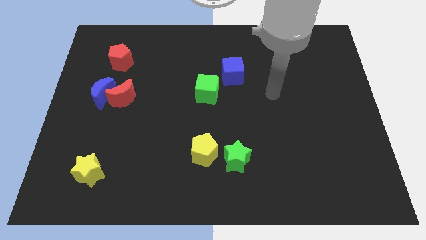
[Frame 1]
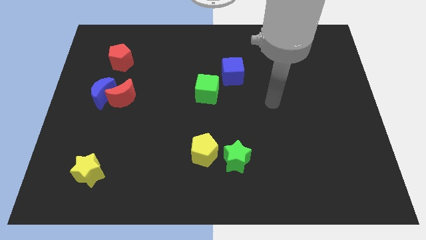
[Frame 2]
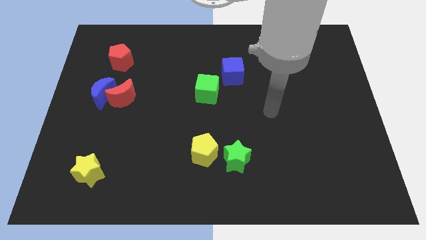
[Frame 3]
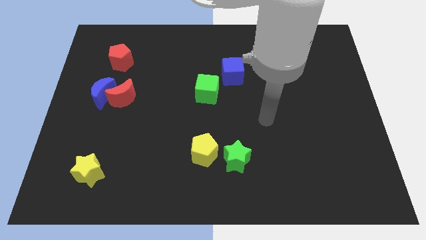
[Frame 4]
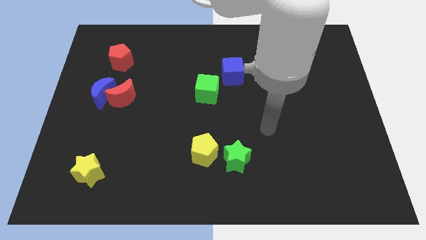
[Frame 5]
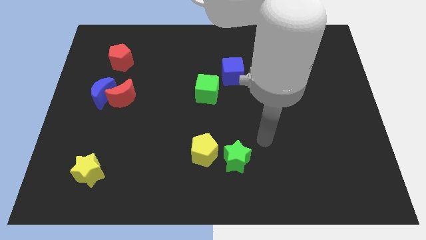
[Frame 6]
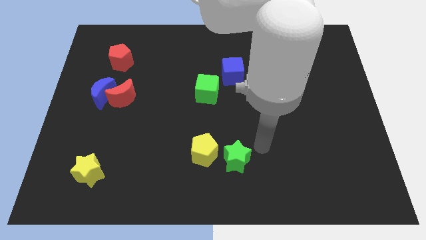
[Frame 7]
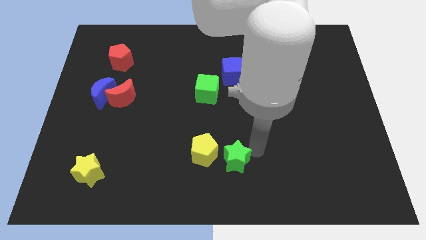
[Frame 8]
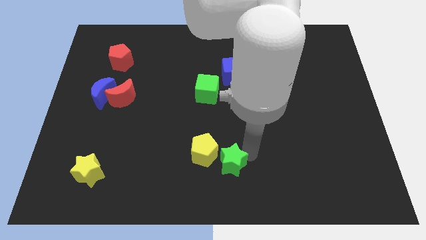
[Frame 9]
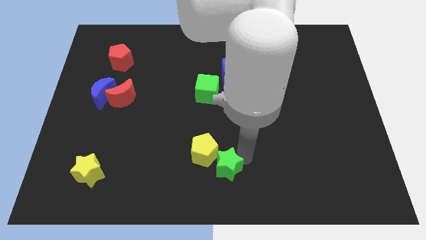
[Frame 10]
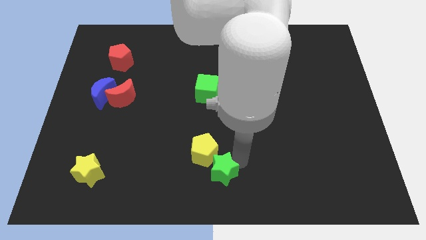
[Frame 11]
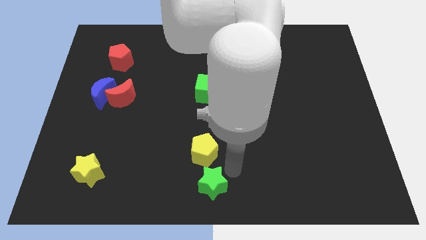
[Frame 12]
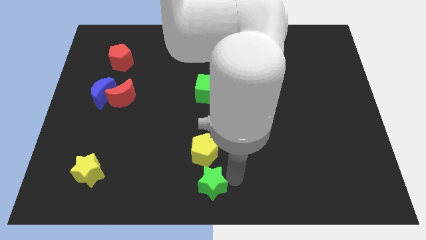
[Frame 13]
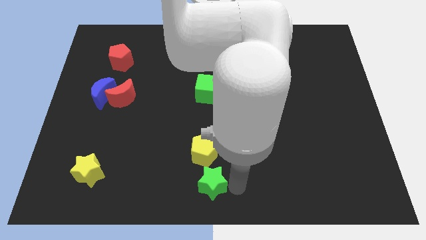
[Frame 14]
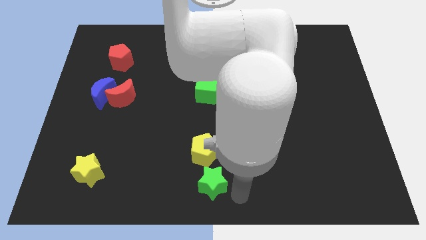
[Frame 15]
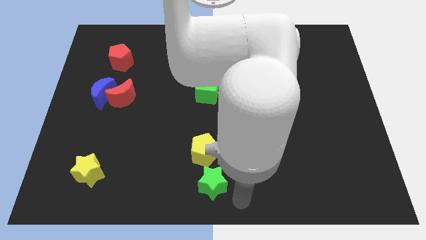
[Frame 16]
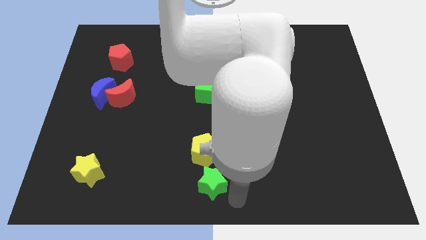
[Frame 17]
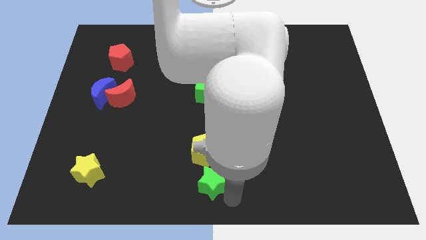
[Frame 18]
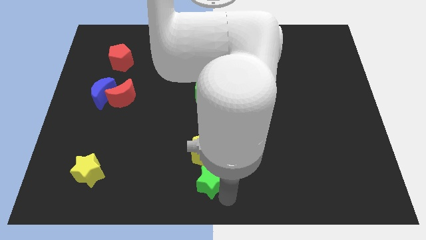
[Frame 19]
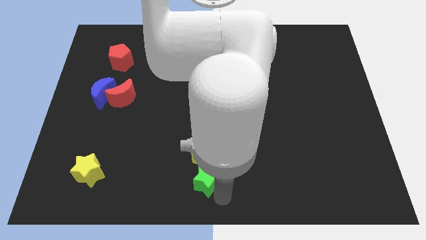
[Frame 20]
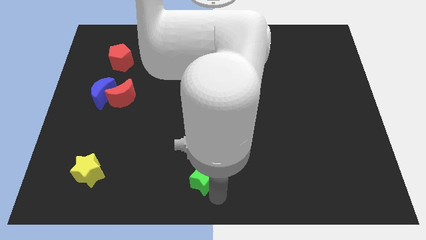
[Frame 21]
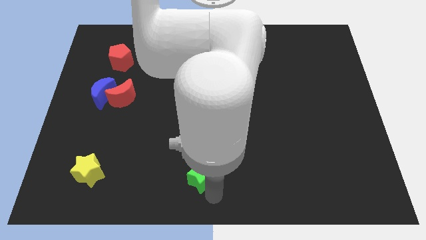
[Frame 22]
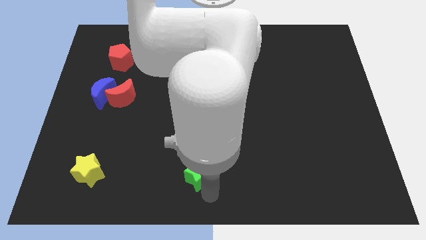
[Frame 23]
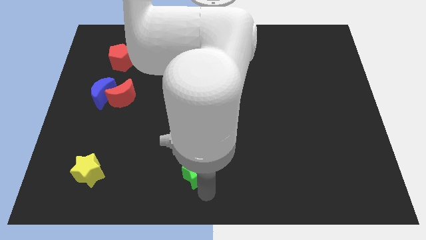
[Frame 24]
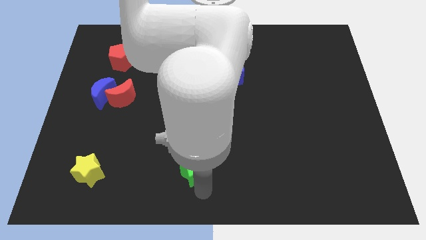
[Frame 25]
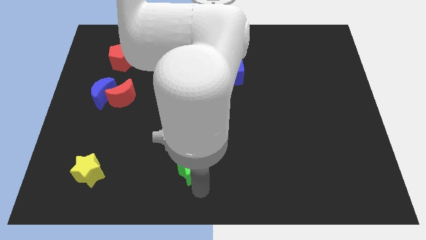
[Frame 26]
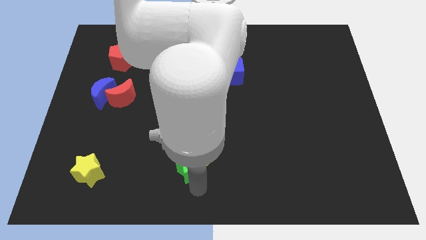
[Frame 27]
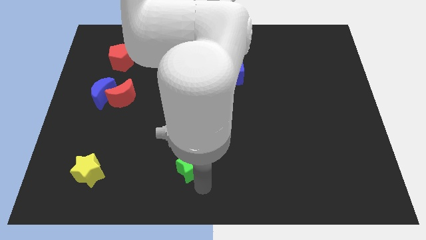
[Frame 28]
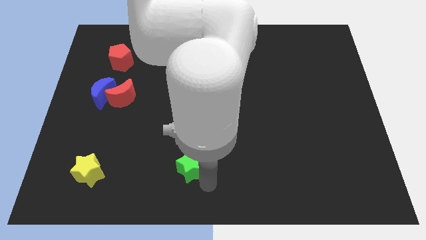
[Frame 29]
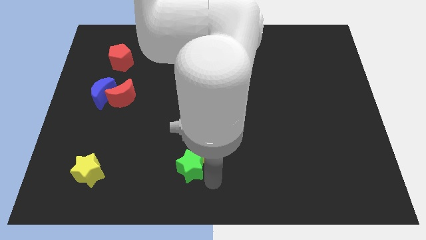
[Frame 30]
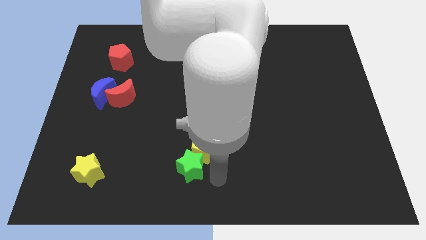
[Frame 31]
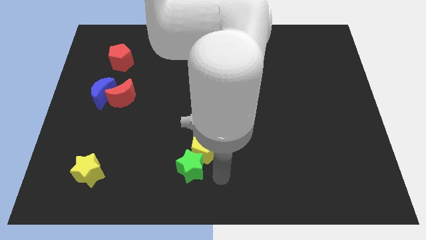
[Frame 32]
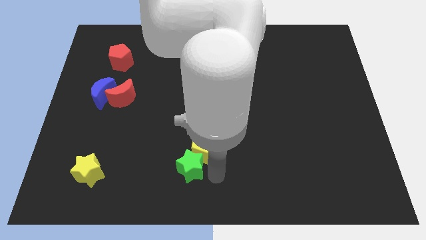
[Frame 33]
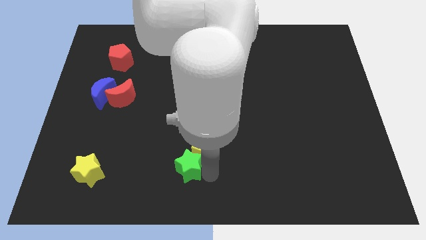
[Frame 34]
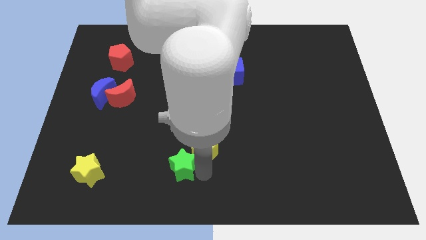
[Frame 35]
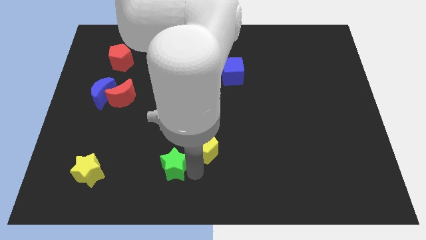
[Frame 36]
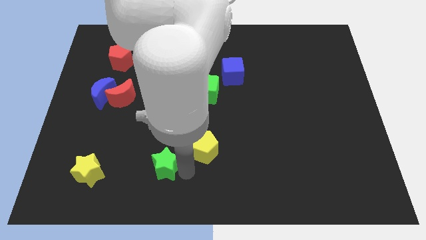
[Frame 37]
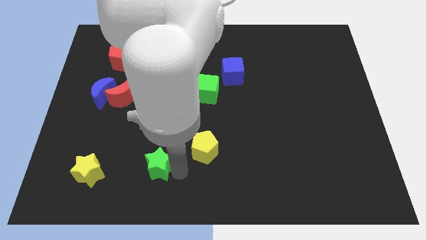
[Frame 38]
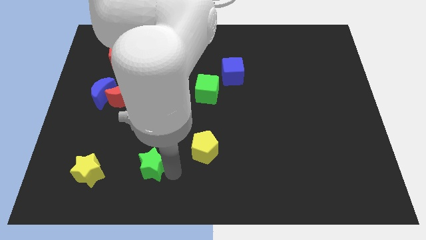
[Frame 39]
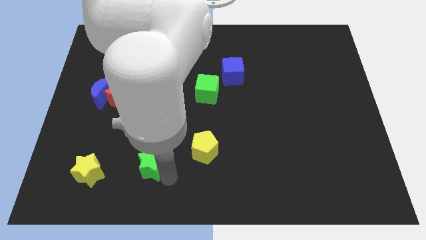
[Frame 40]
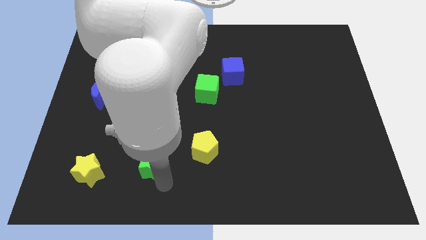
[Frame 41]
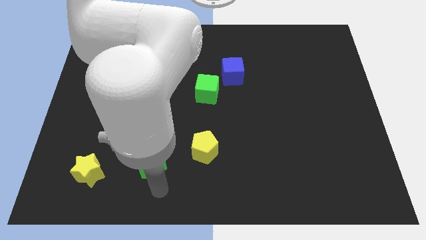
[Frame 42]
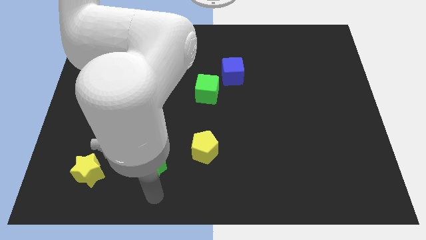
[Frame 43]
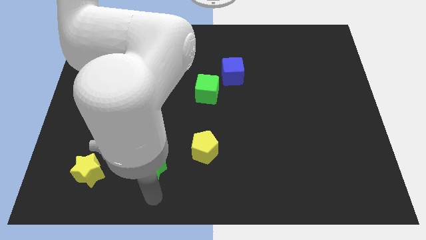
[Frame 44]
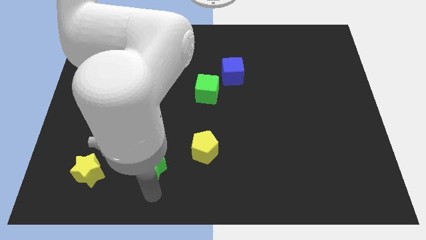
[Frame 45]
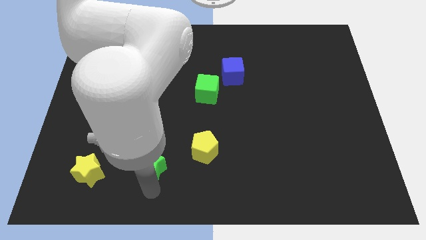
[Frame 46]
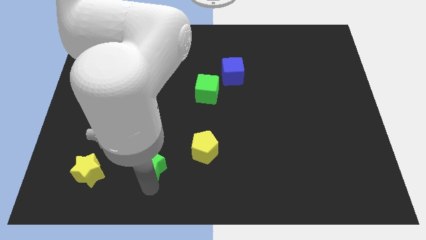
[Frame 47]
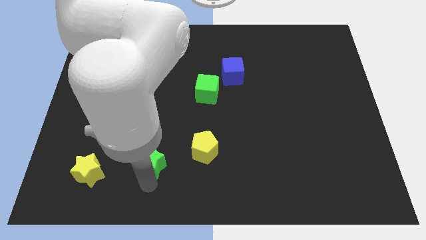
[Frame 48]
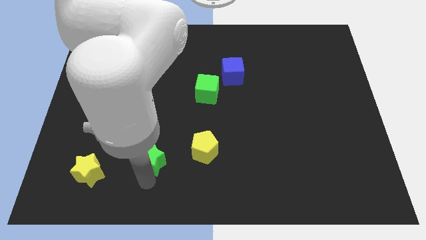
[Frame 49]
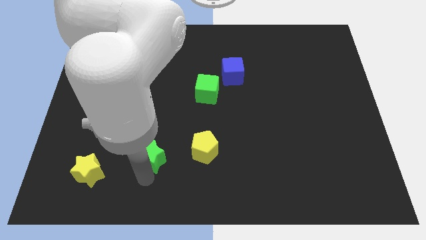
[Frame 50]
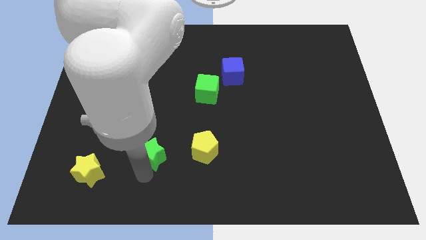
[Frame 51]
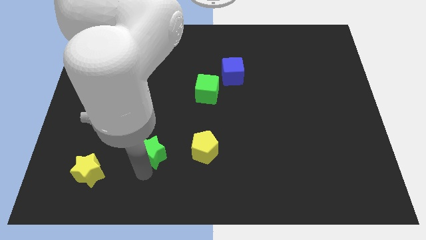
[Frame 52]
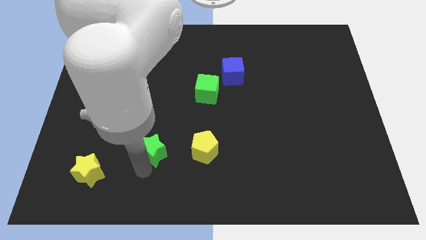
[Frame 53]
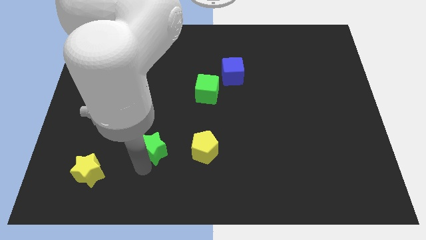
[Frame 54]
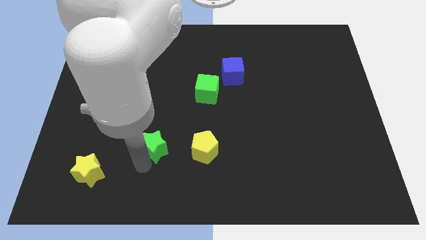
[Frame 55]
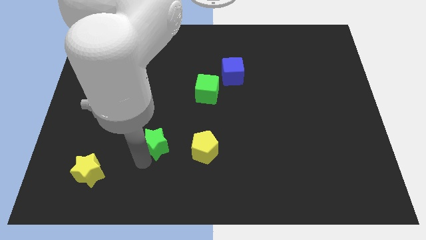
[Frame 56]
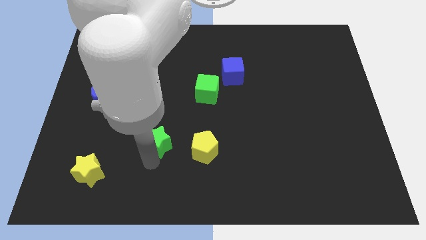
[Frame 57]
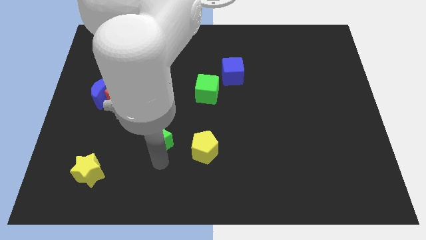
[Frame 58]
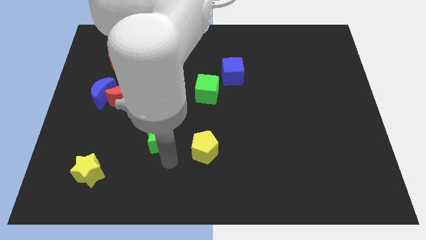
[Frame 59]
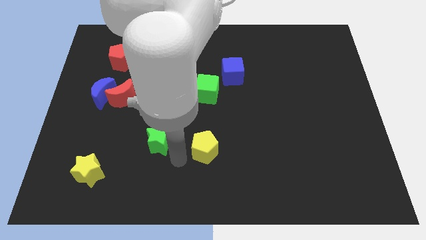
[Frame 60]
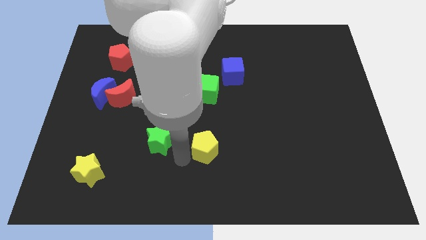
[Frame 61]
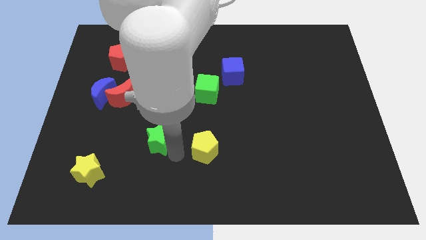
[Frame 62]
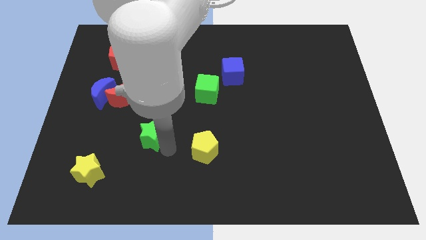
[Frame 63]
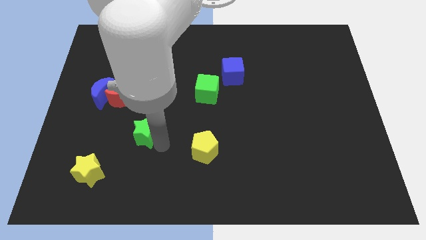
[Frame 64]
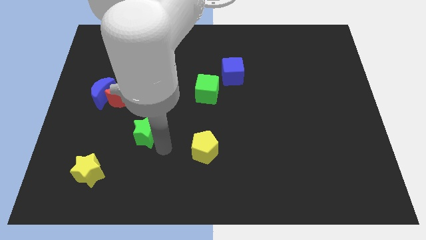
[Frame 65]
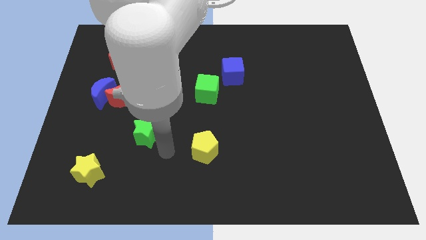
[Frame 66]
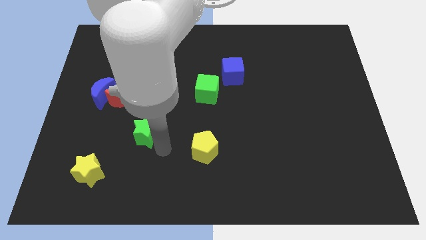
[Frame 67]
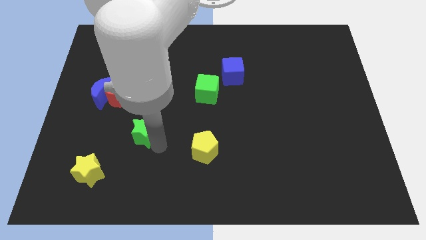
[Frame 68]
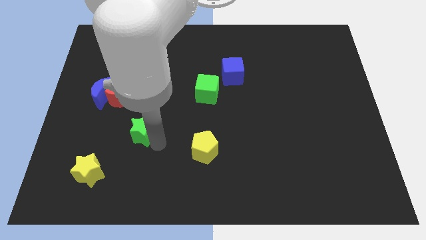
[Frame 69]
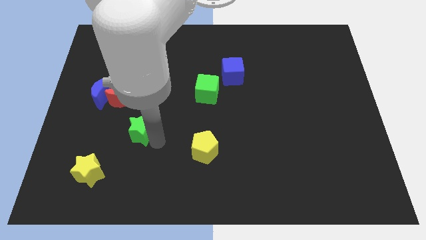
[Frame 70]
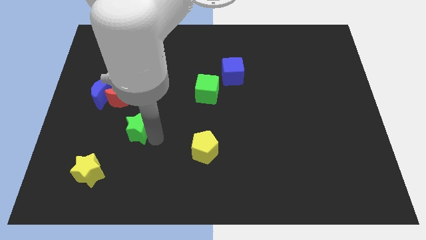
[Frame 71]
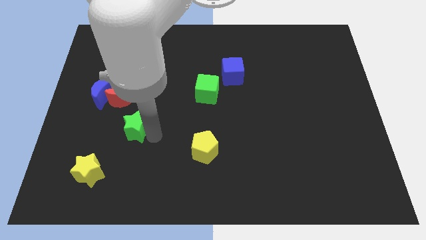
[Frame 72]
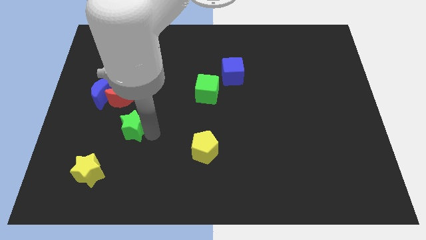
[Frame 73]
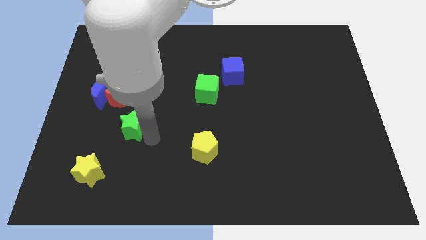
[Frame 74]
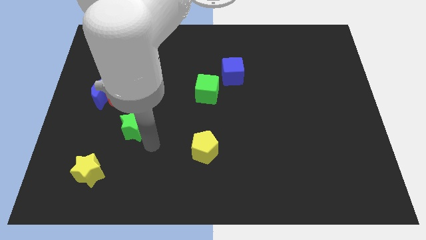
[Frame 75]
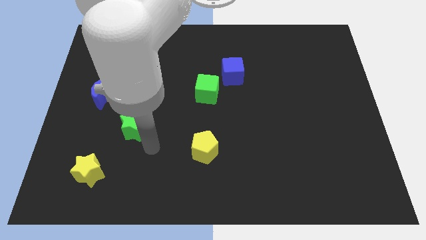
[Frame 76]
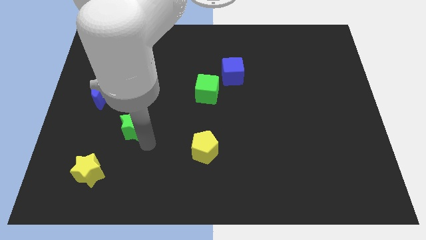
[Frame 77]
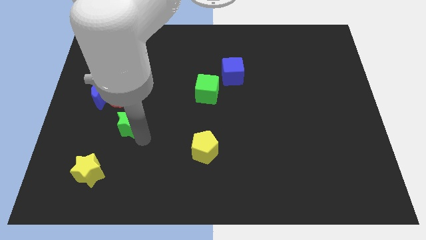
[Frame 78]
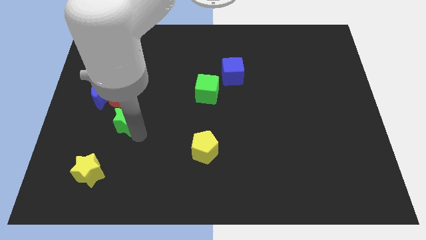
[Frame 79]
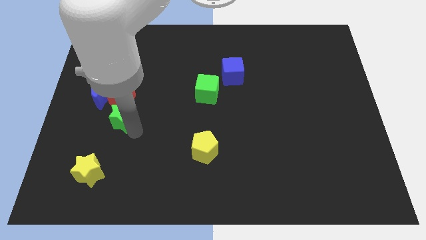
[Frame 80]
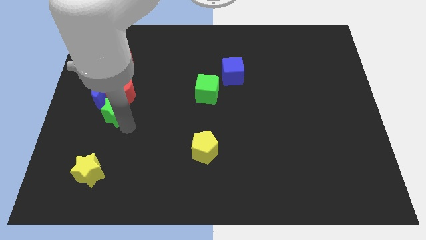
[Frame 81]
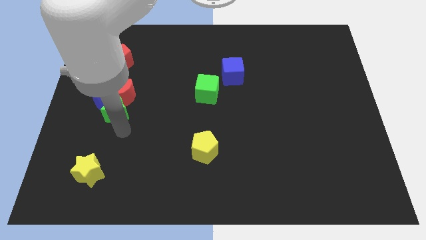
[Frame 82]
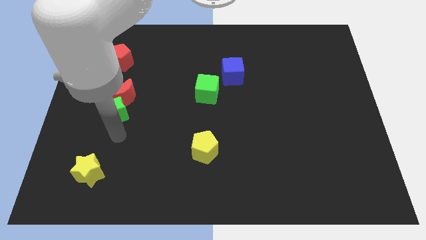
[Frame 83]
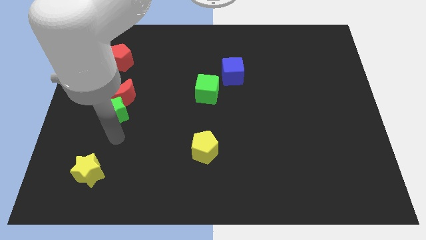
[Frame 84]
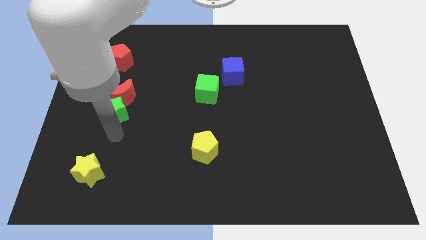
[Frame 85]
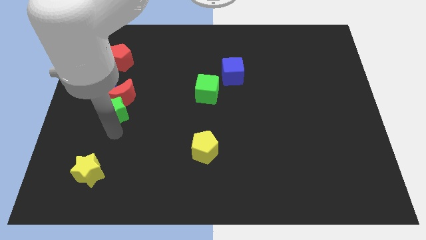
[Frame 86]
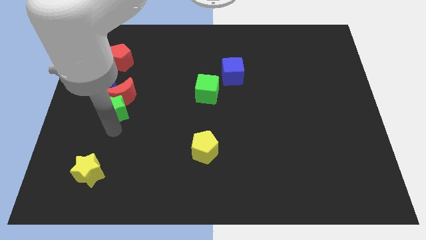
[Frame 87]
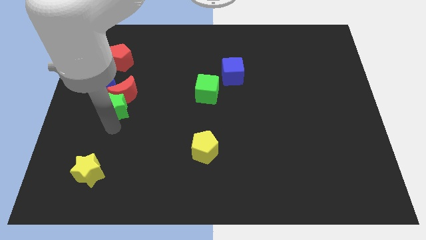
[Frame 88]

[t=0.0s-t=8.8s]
slide the green star to the bottom of the red pentagon
